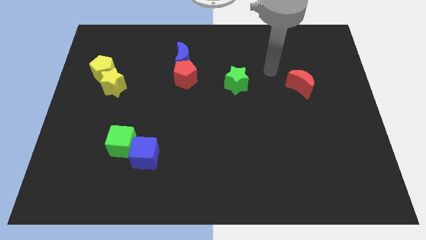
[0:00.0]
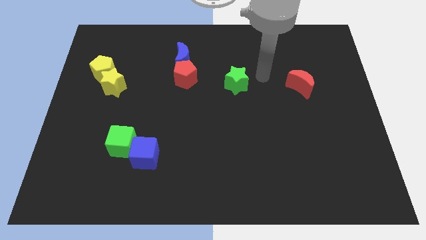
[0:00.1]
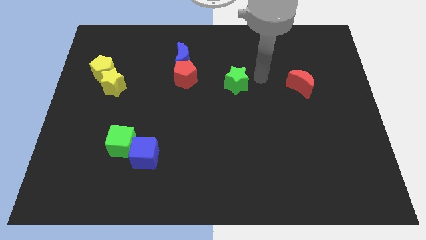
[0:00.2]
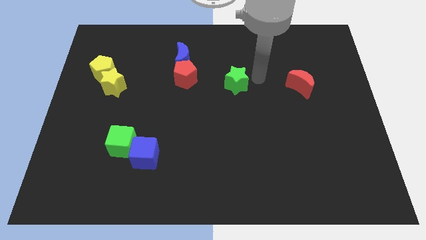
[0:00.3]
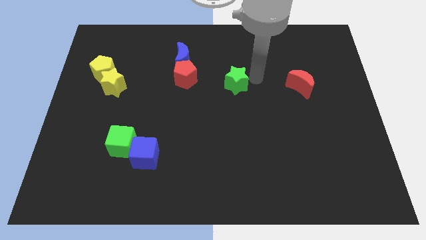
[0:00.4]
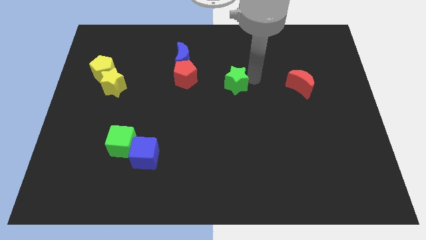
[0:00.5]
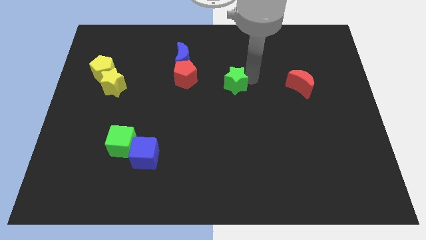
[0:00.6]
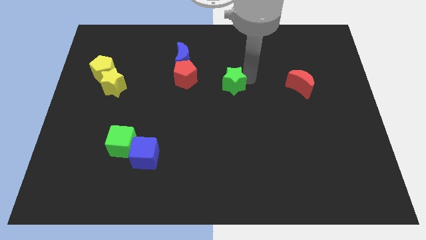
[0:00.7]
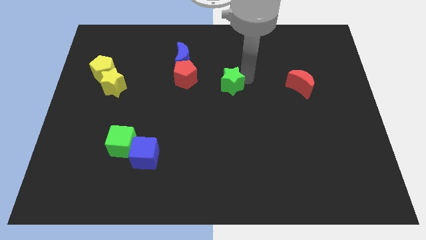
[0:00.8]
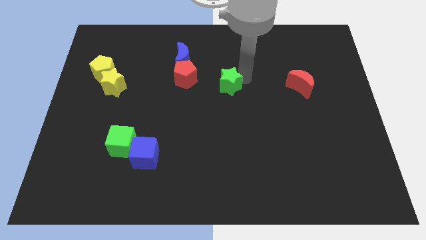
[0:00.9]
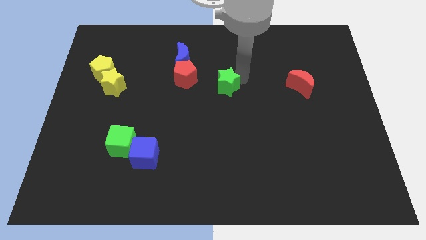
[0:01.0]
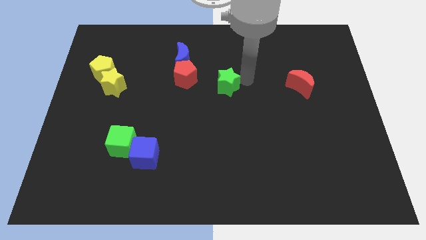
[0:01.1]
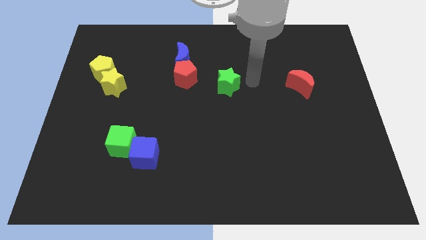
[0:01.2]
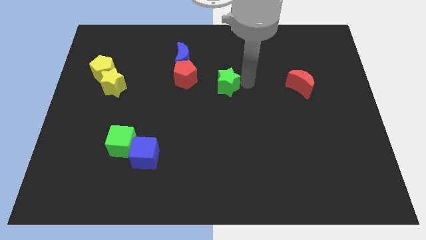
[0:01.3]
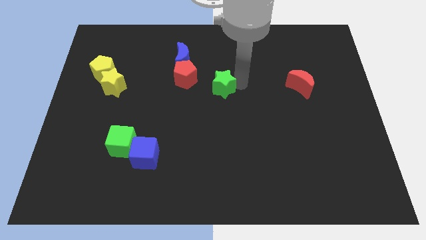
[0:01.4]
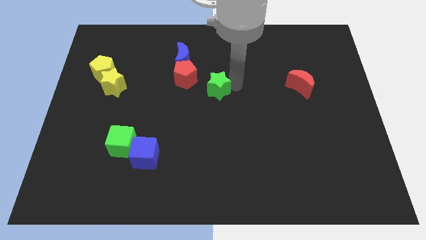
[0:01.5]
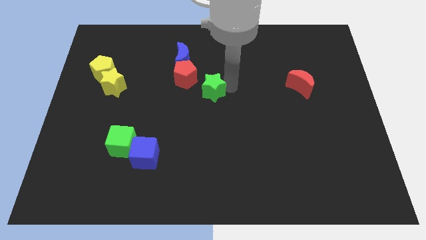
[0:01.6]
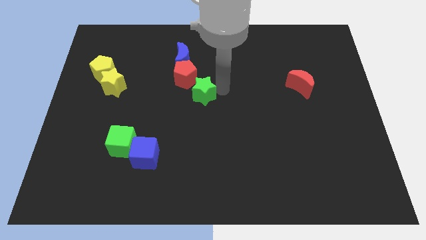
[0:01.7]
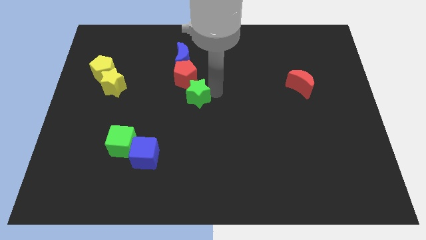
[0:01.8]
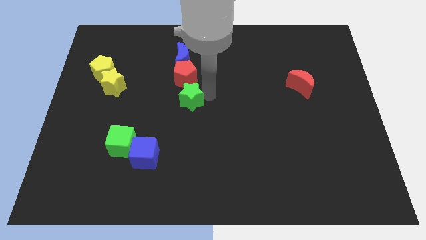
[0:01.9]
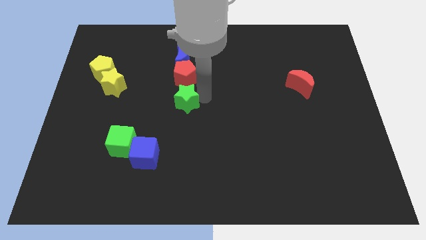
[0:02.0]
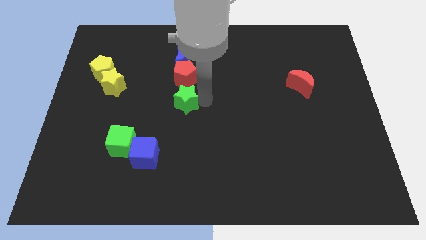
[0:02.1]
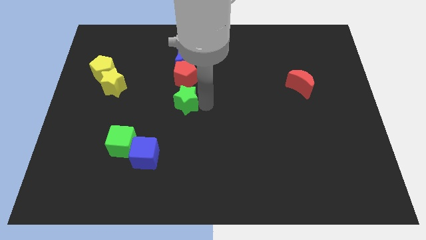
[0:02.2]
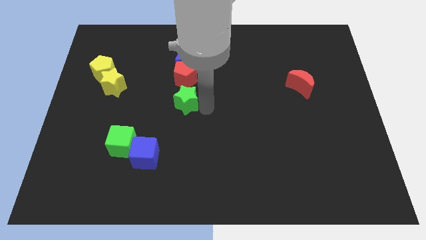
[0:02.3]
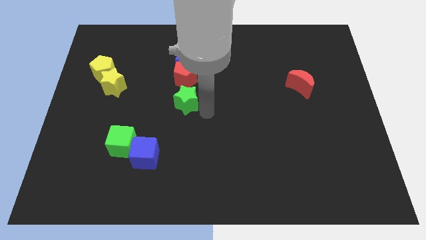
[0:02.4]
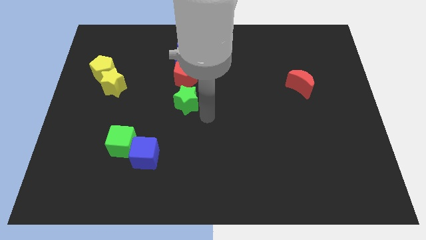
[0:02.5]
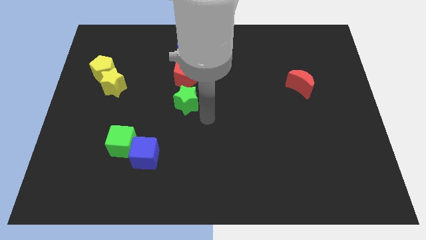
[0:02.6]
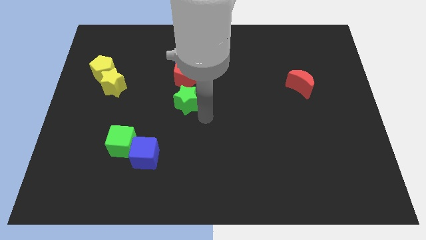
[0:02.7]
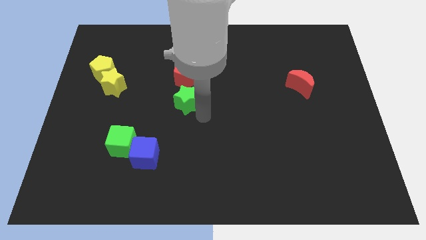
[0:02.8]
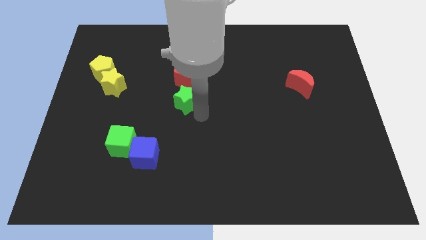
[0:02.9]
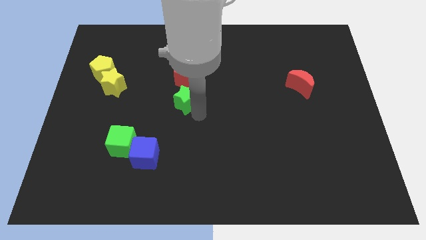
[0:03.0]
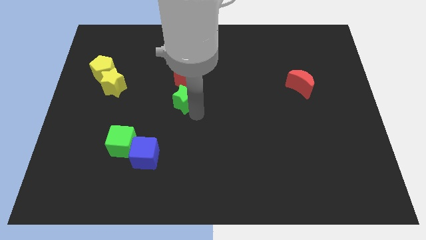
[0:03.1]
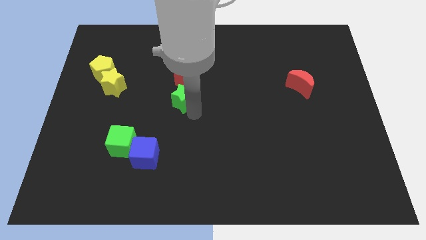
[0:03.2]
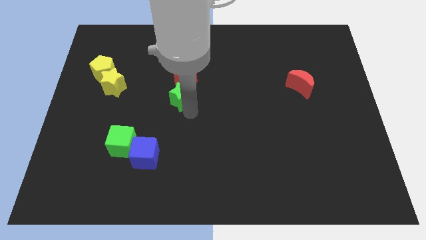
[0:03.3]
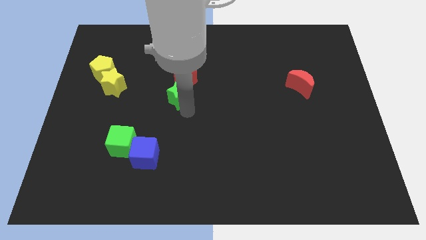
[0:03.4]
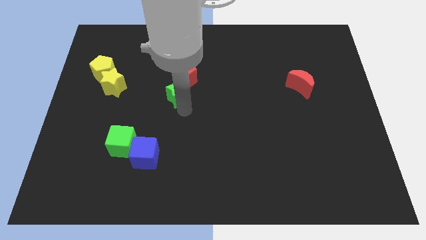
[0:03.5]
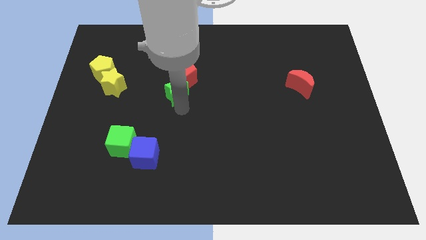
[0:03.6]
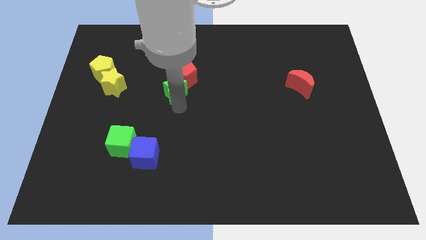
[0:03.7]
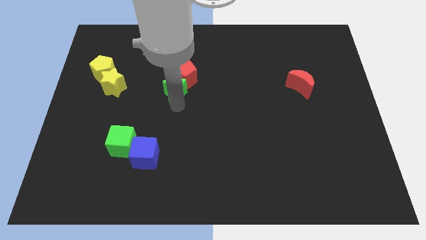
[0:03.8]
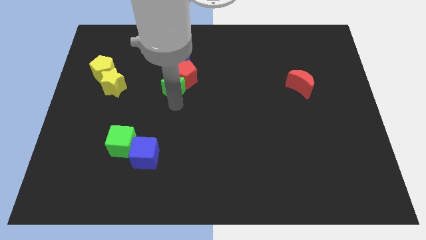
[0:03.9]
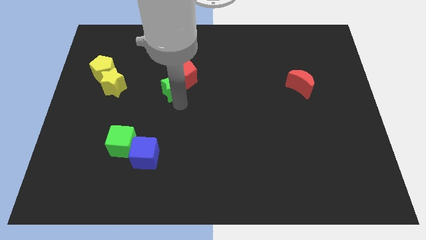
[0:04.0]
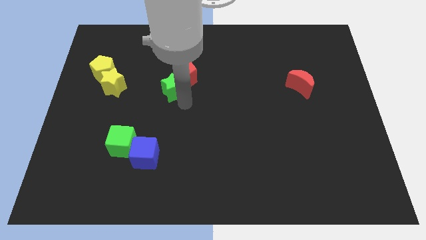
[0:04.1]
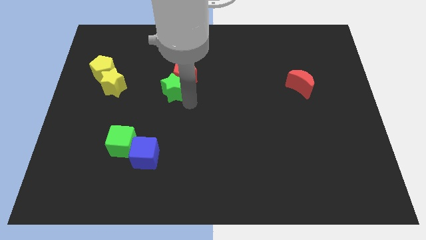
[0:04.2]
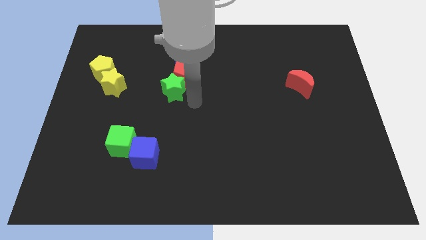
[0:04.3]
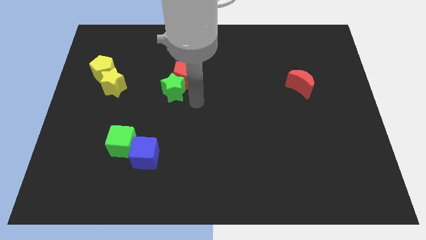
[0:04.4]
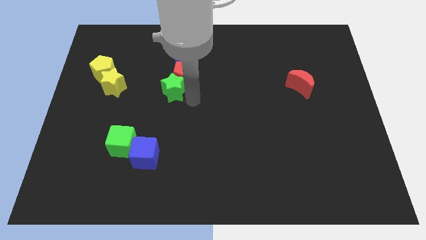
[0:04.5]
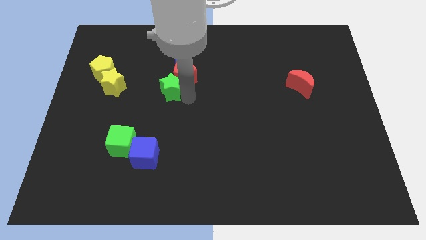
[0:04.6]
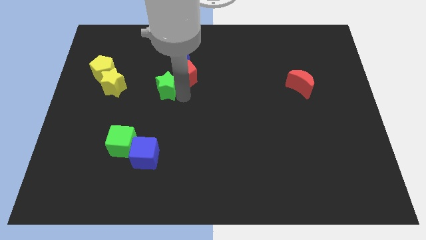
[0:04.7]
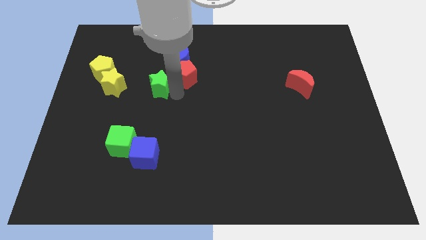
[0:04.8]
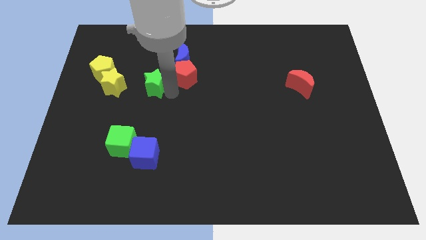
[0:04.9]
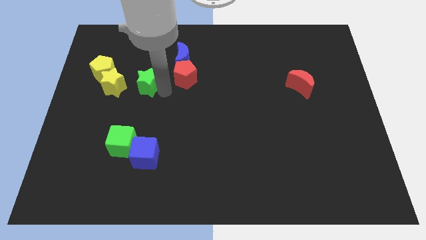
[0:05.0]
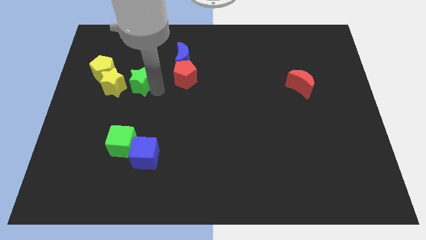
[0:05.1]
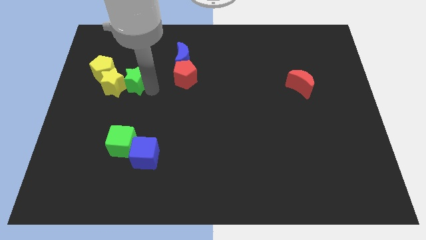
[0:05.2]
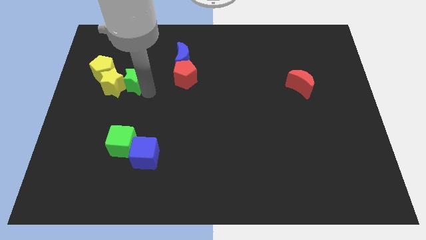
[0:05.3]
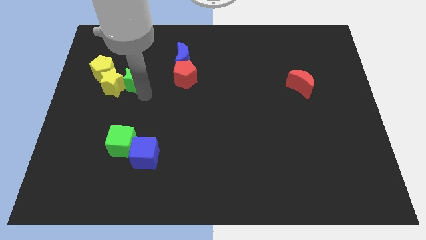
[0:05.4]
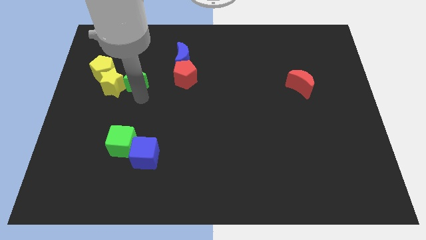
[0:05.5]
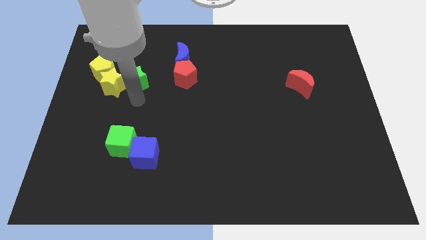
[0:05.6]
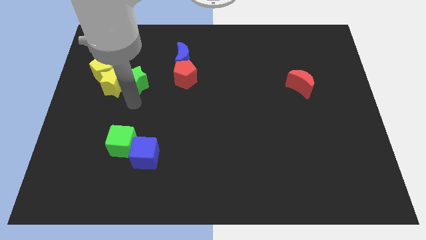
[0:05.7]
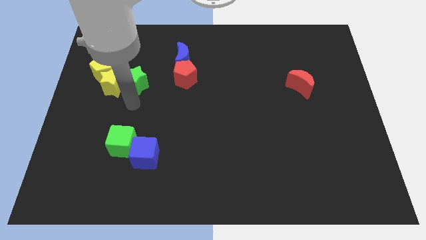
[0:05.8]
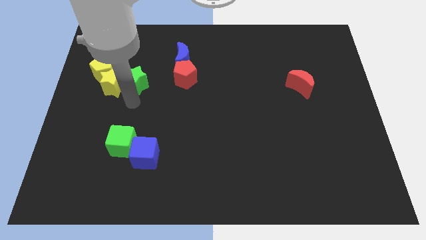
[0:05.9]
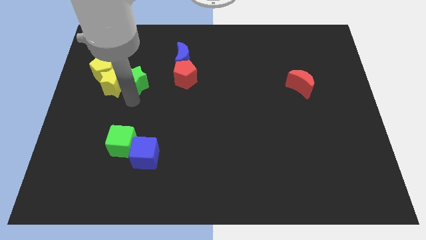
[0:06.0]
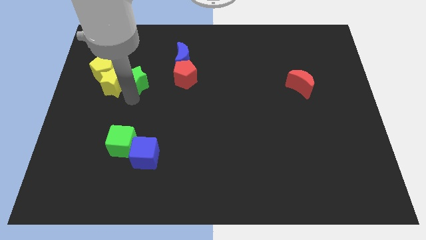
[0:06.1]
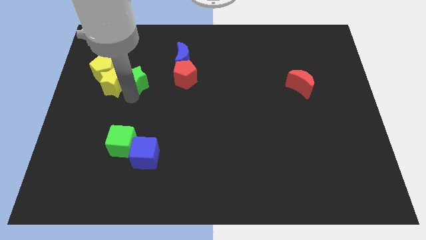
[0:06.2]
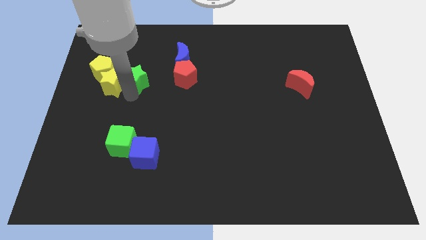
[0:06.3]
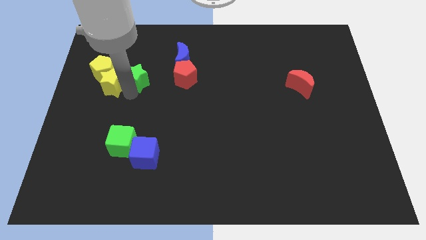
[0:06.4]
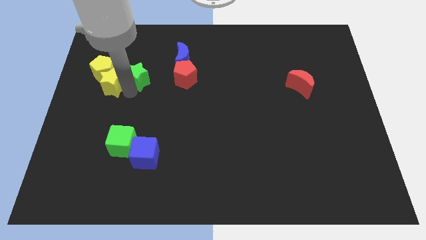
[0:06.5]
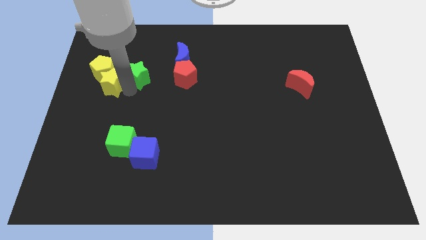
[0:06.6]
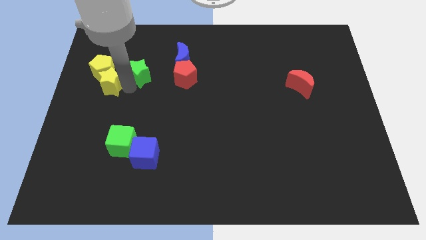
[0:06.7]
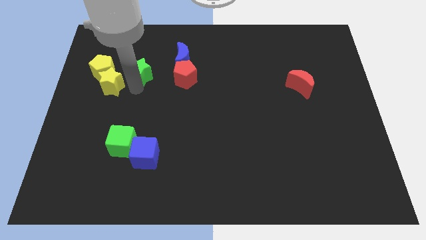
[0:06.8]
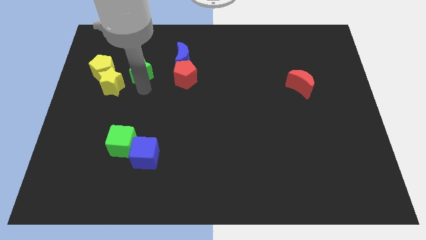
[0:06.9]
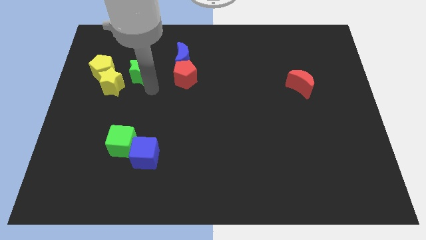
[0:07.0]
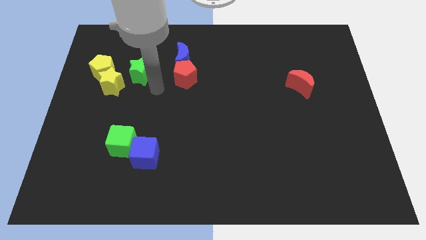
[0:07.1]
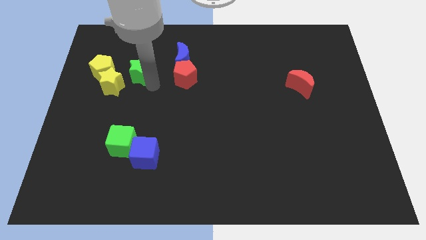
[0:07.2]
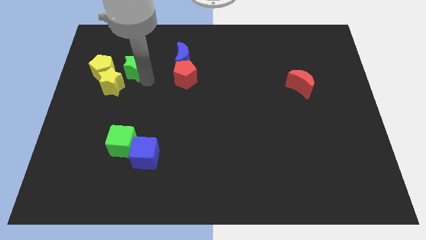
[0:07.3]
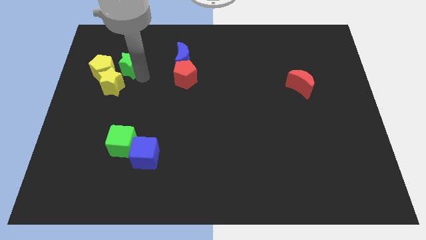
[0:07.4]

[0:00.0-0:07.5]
slide the green star to the top of the yellow star
